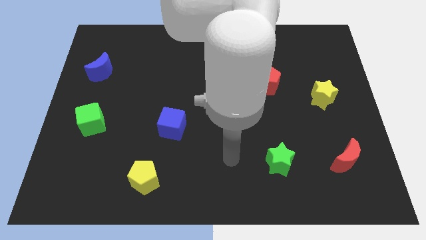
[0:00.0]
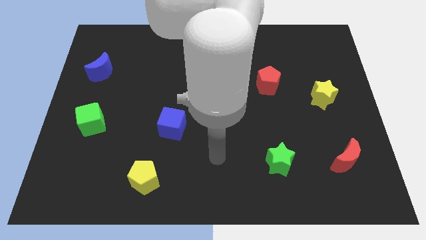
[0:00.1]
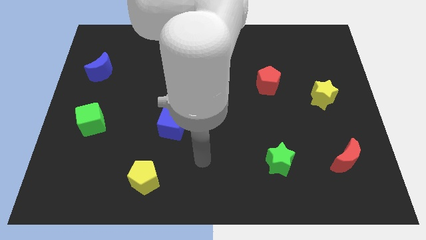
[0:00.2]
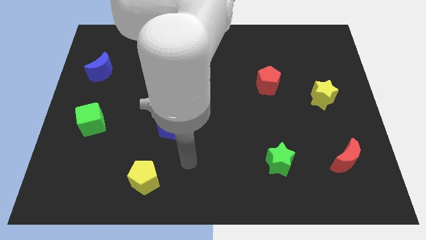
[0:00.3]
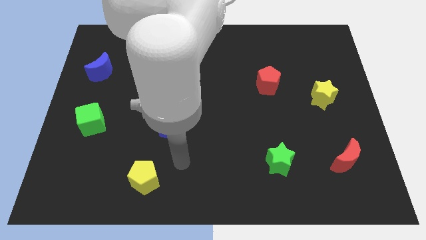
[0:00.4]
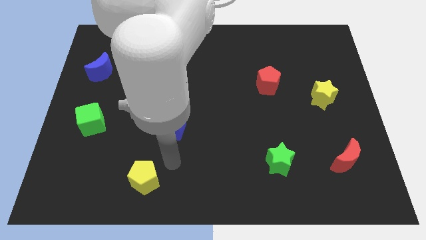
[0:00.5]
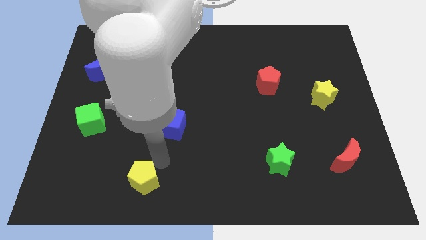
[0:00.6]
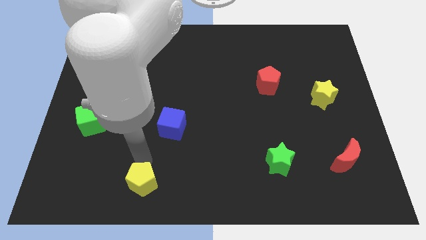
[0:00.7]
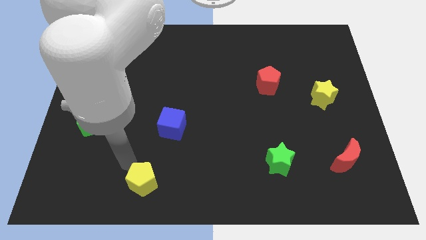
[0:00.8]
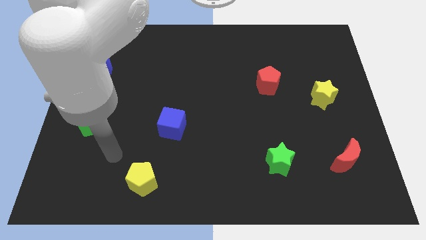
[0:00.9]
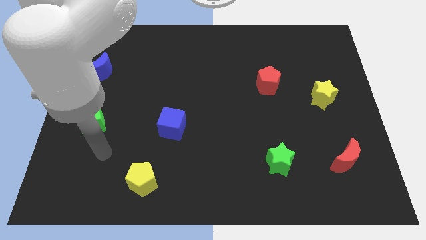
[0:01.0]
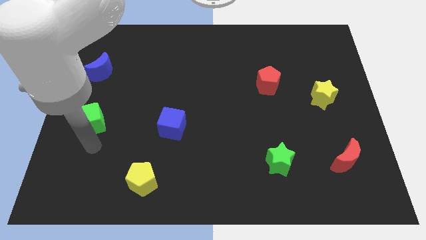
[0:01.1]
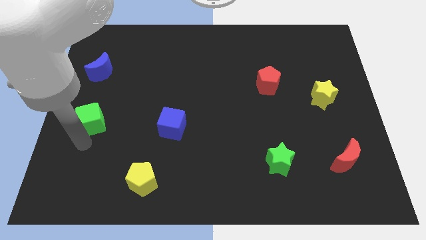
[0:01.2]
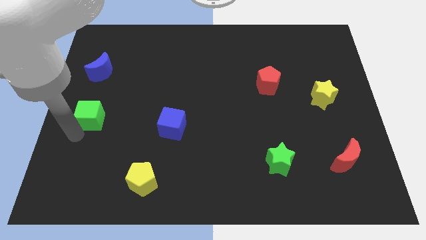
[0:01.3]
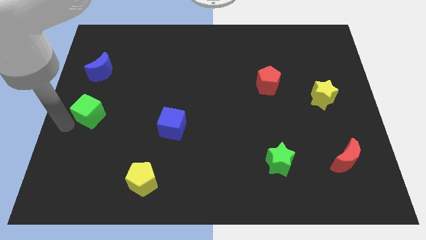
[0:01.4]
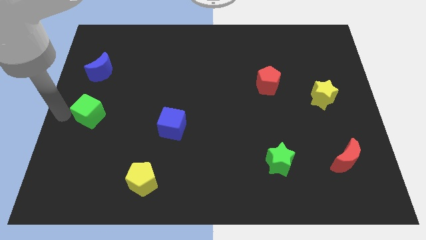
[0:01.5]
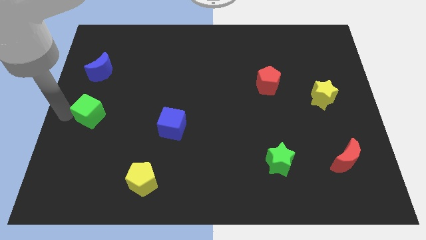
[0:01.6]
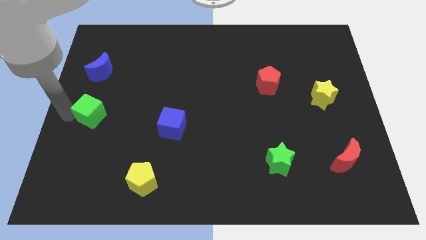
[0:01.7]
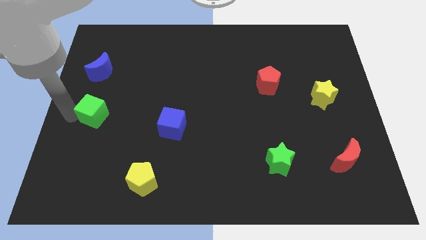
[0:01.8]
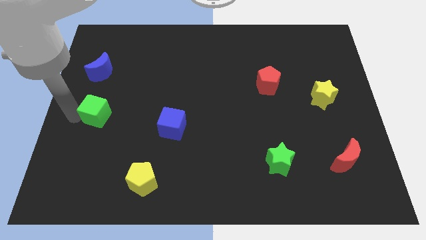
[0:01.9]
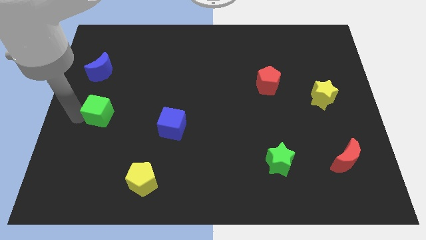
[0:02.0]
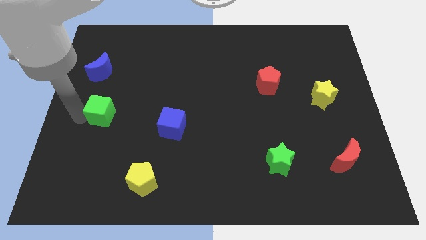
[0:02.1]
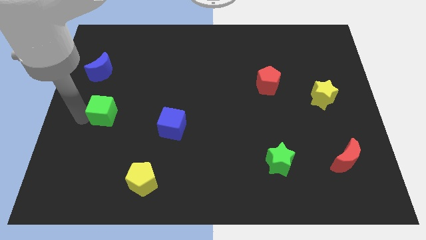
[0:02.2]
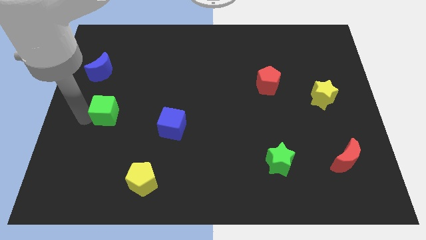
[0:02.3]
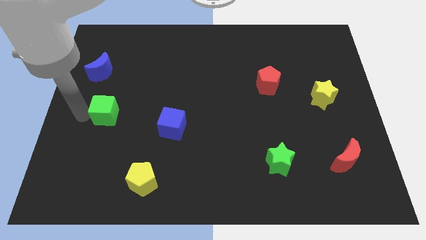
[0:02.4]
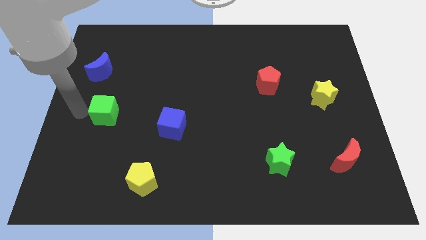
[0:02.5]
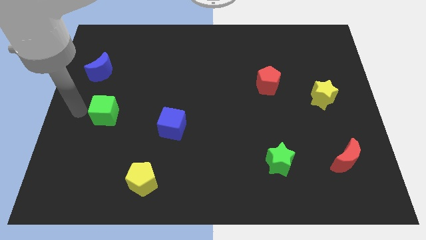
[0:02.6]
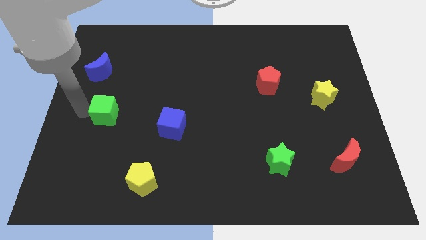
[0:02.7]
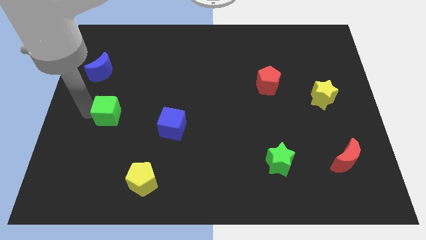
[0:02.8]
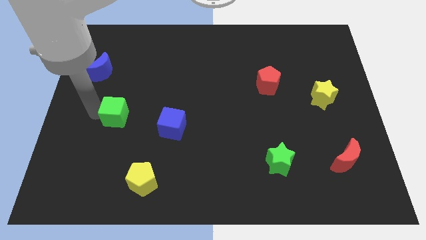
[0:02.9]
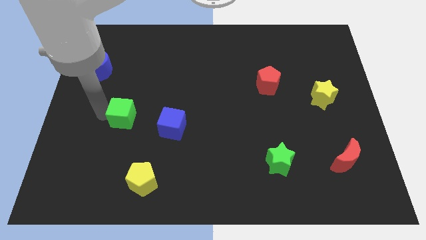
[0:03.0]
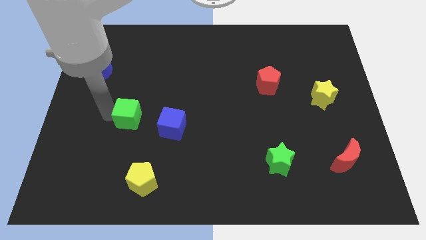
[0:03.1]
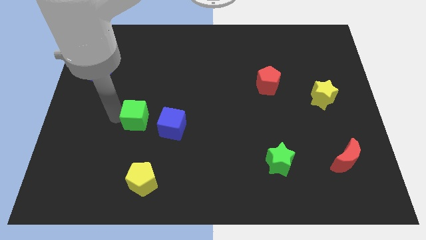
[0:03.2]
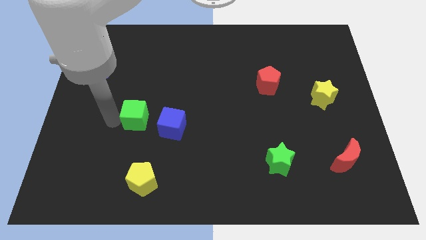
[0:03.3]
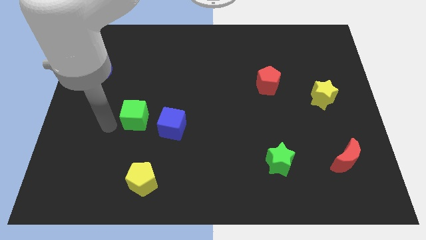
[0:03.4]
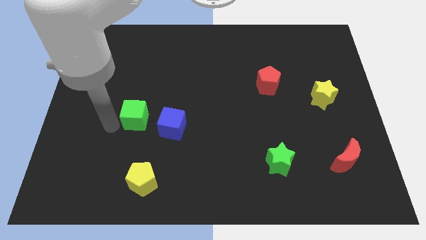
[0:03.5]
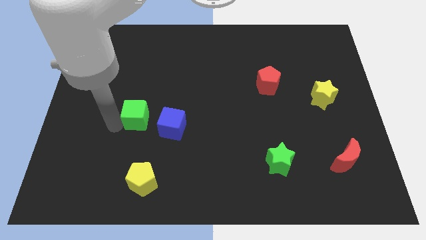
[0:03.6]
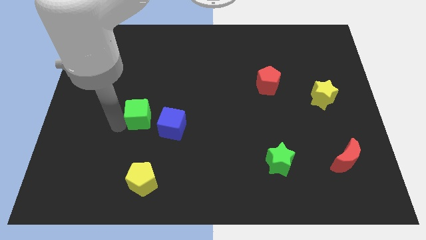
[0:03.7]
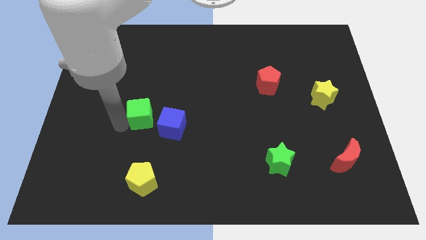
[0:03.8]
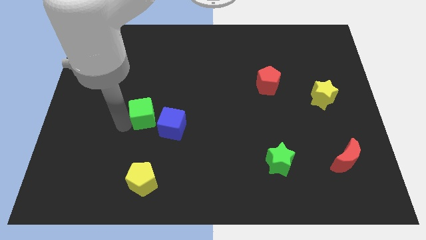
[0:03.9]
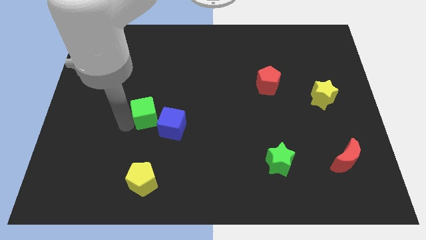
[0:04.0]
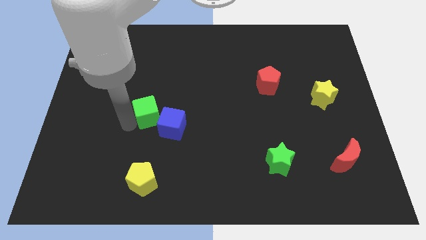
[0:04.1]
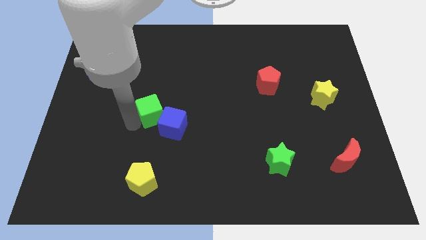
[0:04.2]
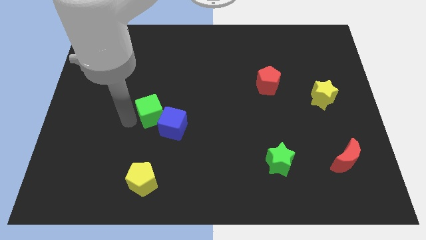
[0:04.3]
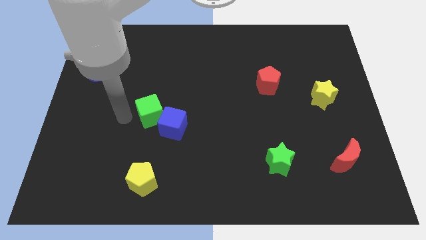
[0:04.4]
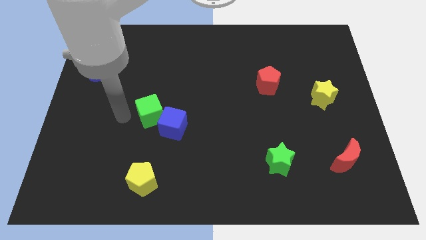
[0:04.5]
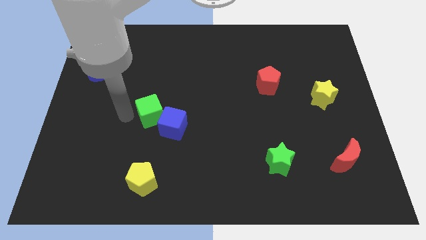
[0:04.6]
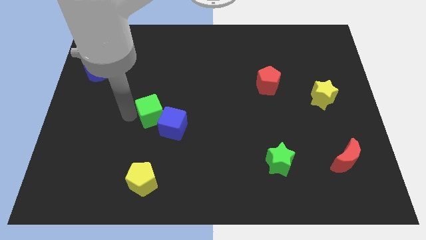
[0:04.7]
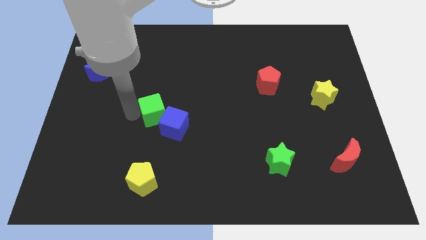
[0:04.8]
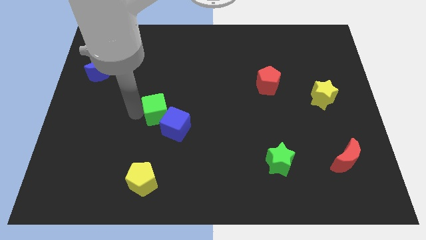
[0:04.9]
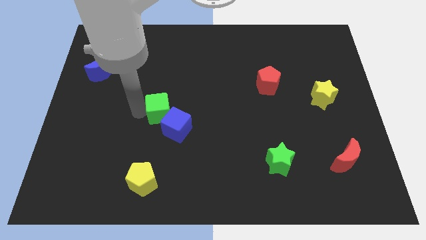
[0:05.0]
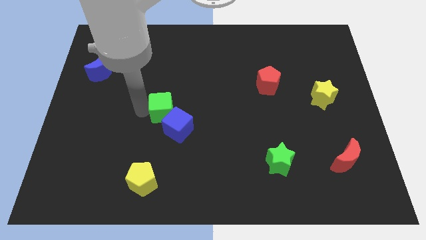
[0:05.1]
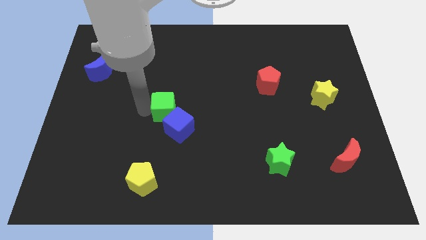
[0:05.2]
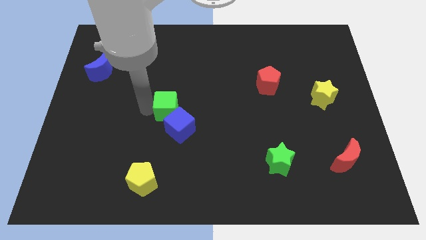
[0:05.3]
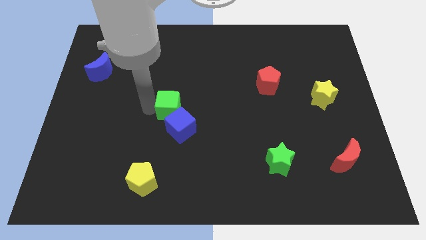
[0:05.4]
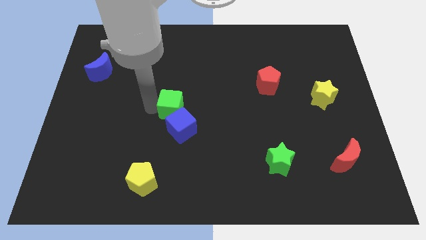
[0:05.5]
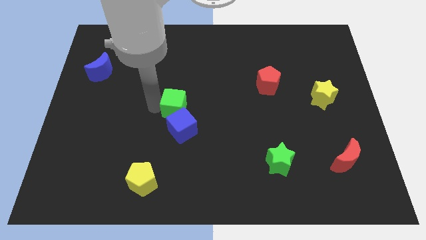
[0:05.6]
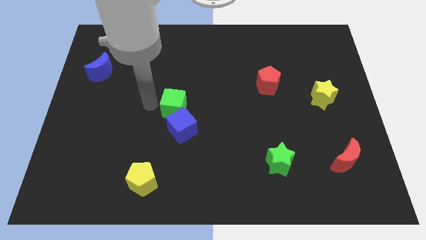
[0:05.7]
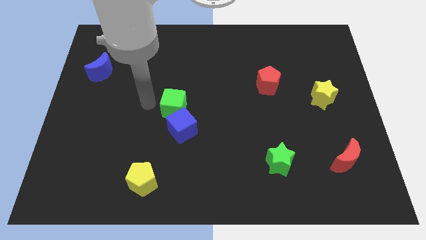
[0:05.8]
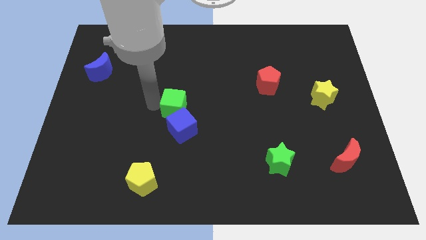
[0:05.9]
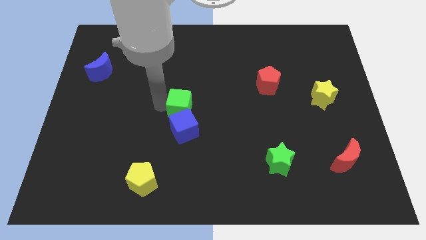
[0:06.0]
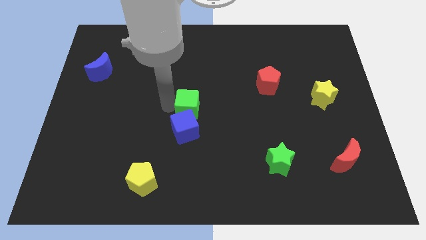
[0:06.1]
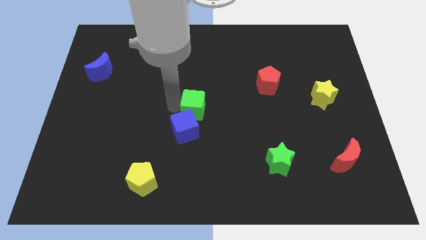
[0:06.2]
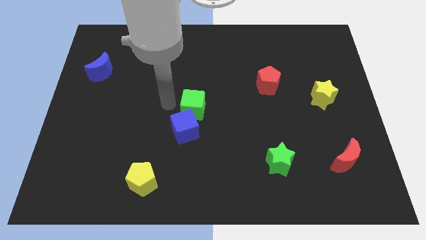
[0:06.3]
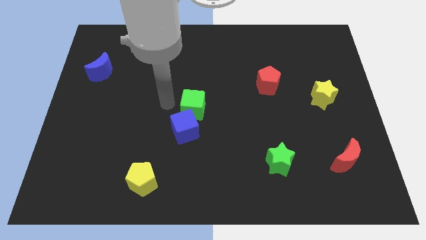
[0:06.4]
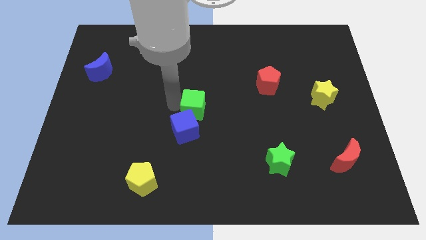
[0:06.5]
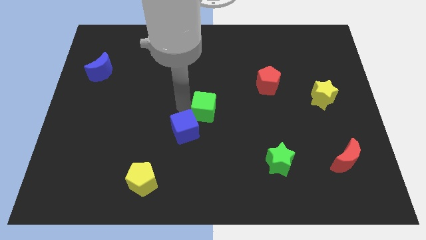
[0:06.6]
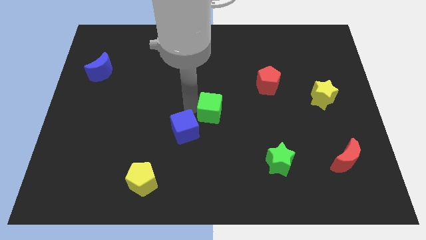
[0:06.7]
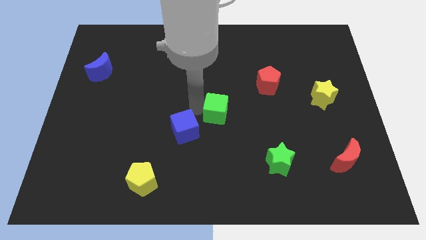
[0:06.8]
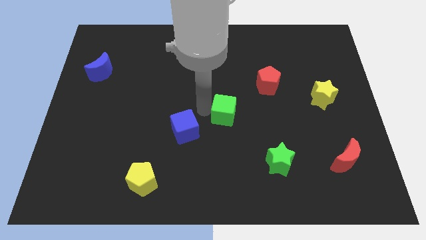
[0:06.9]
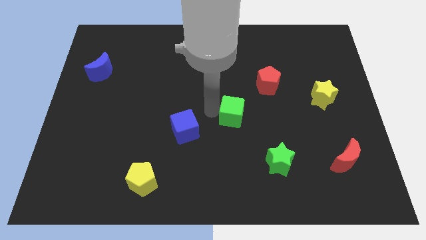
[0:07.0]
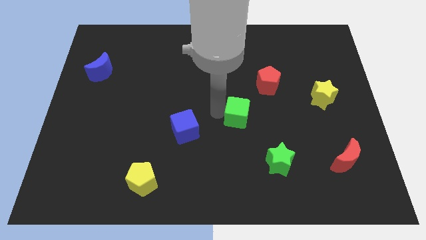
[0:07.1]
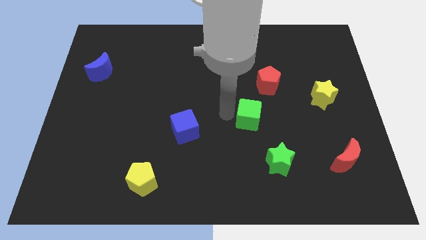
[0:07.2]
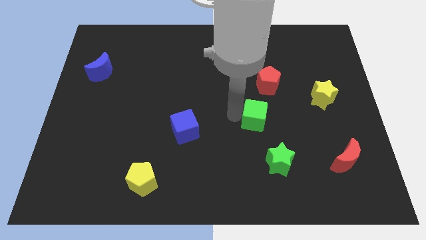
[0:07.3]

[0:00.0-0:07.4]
push the green cube to the top side of the green star
